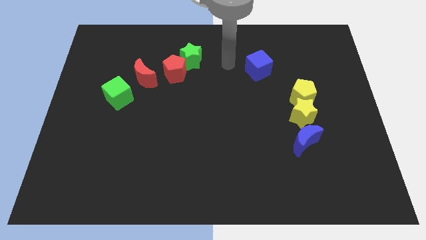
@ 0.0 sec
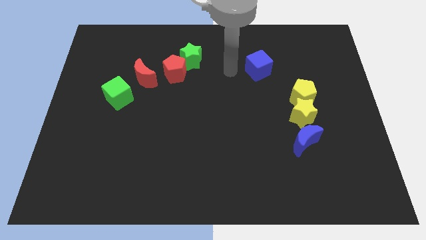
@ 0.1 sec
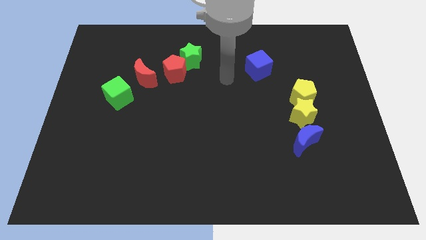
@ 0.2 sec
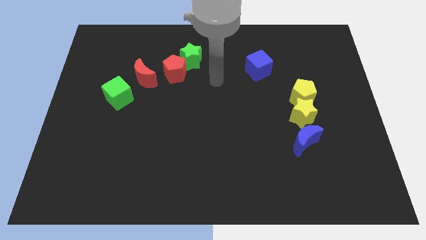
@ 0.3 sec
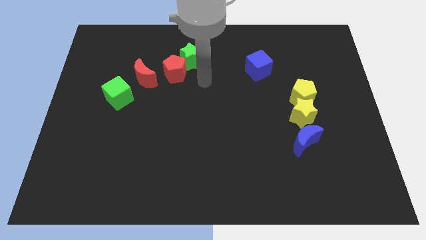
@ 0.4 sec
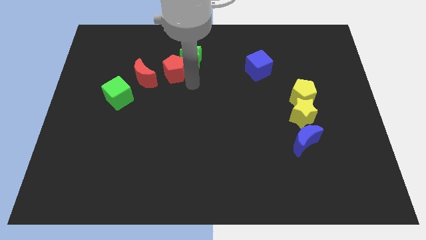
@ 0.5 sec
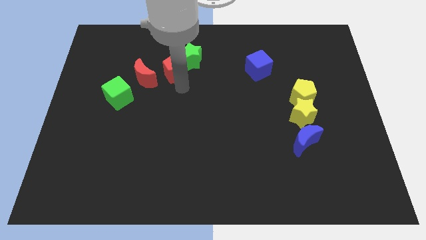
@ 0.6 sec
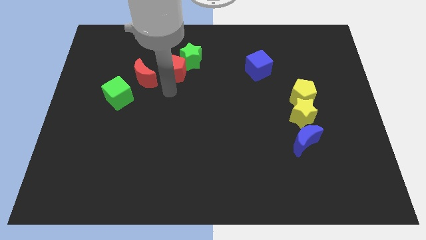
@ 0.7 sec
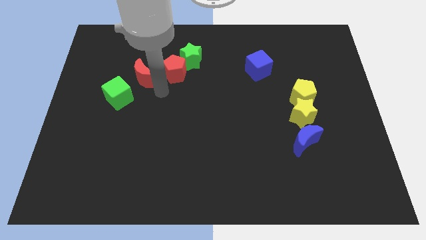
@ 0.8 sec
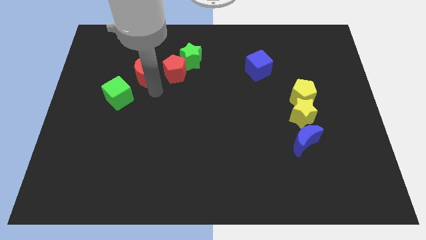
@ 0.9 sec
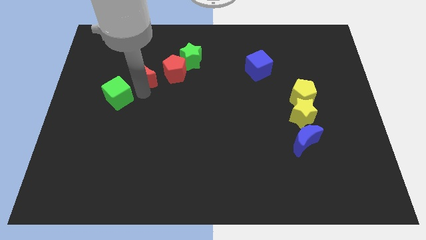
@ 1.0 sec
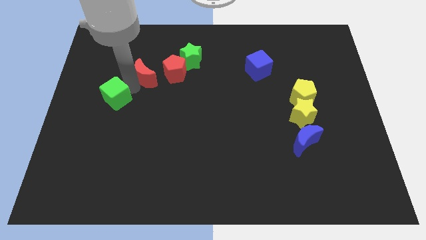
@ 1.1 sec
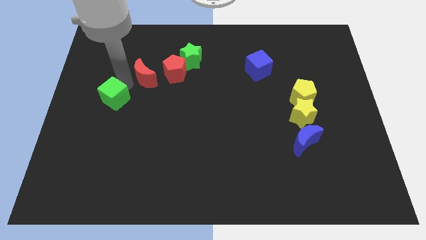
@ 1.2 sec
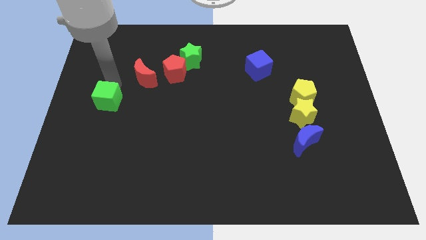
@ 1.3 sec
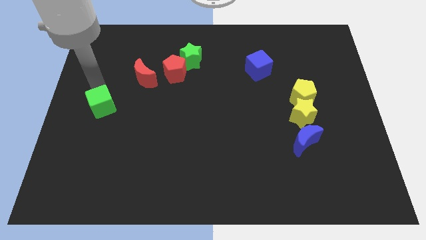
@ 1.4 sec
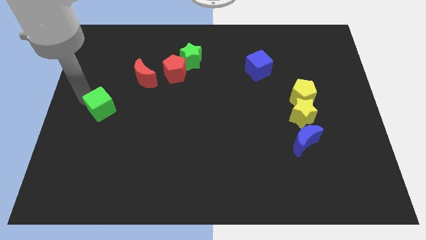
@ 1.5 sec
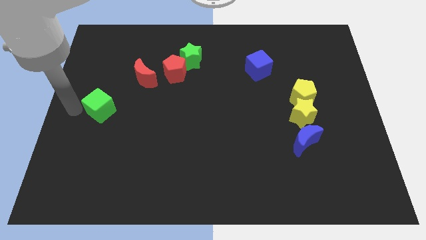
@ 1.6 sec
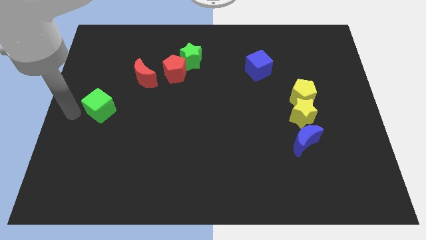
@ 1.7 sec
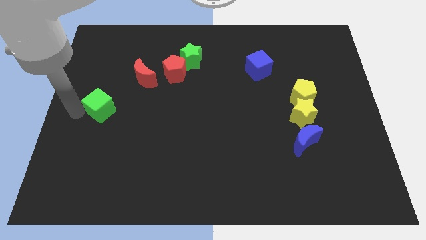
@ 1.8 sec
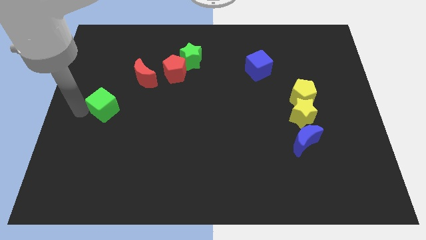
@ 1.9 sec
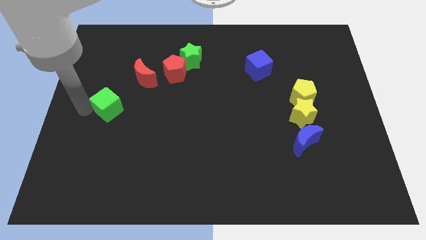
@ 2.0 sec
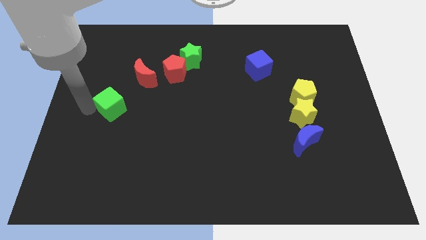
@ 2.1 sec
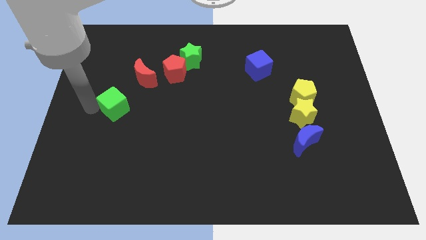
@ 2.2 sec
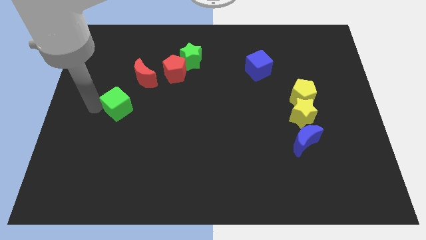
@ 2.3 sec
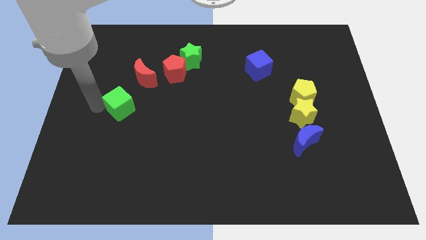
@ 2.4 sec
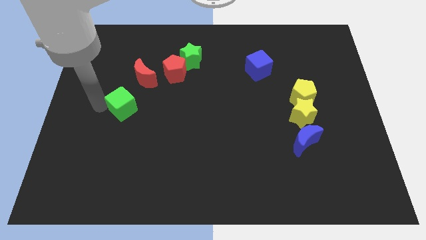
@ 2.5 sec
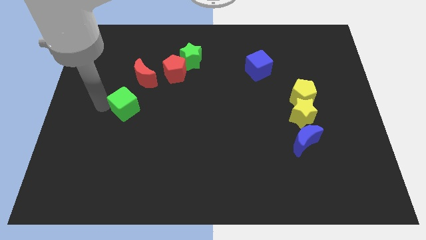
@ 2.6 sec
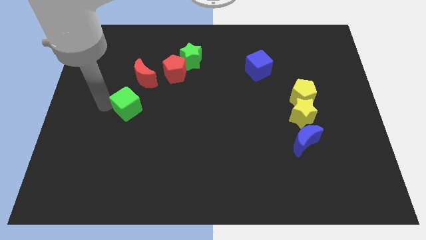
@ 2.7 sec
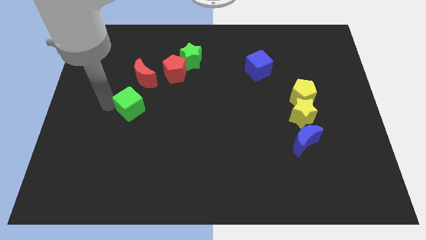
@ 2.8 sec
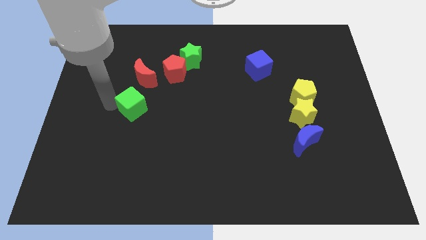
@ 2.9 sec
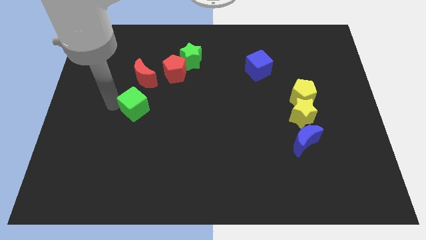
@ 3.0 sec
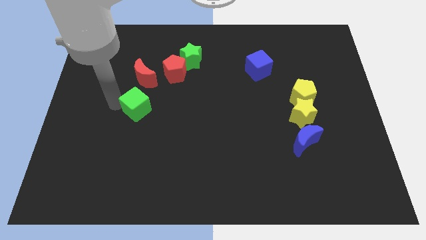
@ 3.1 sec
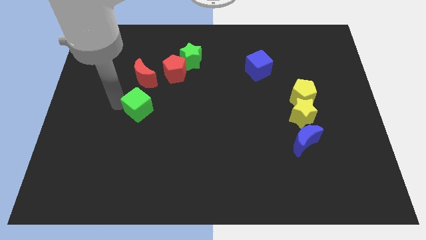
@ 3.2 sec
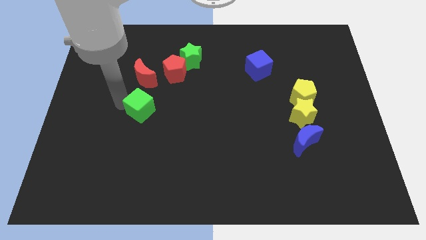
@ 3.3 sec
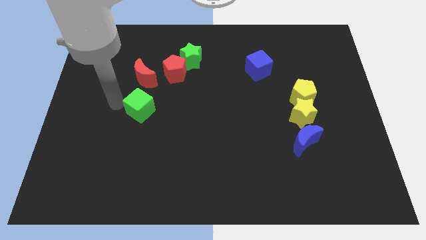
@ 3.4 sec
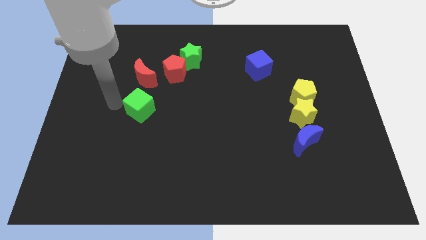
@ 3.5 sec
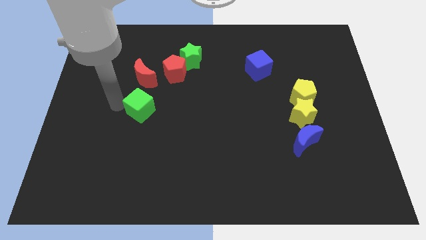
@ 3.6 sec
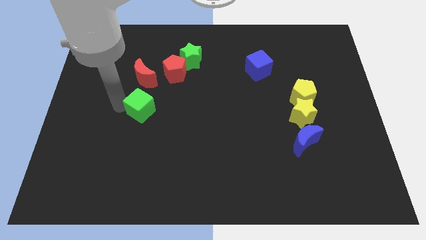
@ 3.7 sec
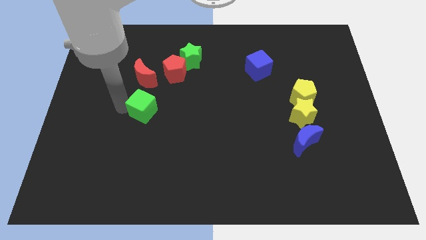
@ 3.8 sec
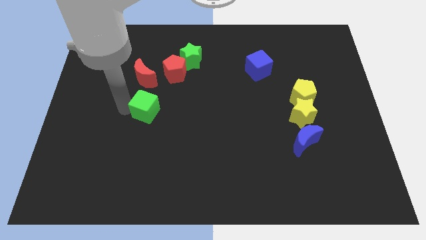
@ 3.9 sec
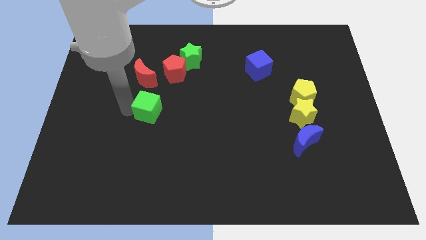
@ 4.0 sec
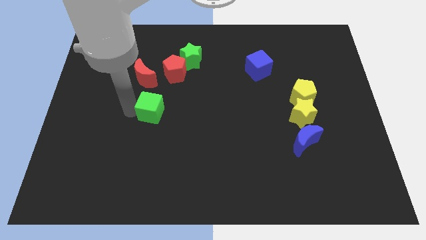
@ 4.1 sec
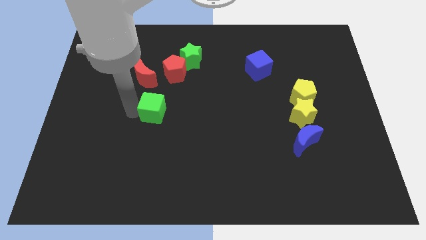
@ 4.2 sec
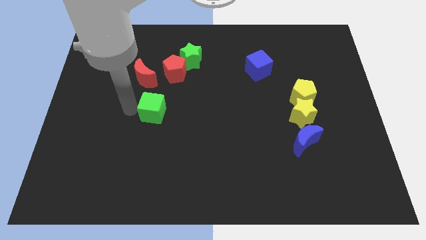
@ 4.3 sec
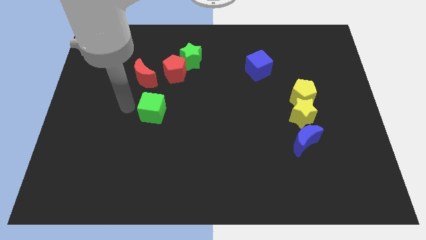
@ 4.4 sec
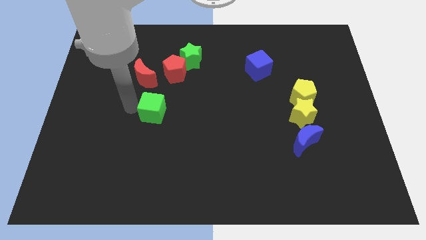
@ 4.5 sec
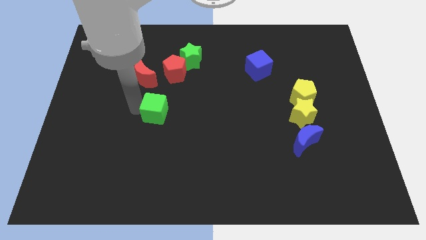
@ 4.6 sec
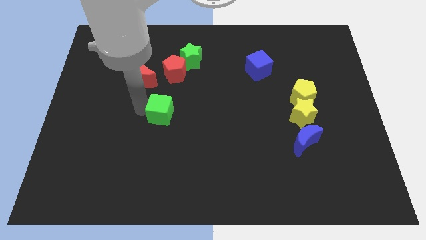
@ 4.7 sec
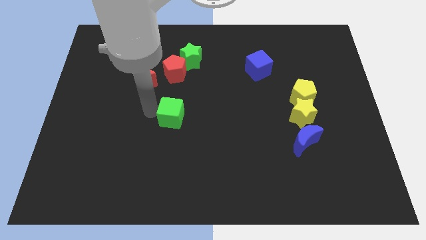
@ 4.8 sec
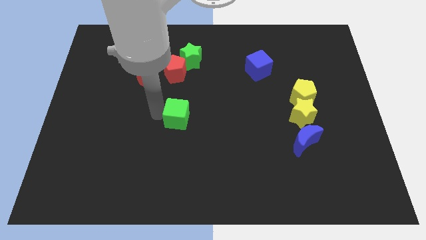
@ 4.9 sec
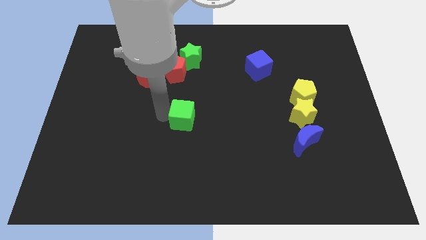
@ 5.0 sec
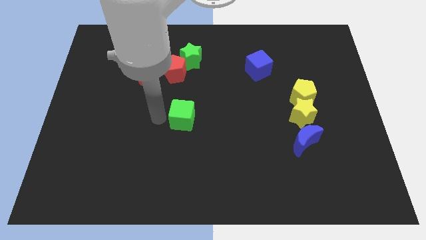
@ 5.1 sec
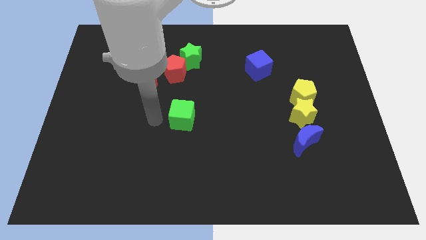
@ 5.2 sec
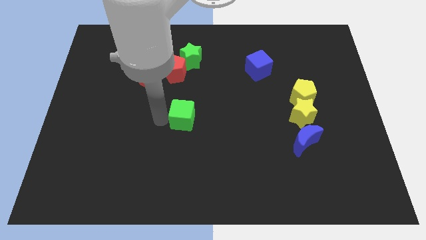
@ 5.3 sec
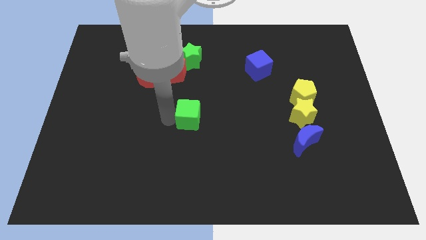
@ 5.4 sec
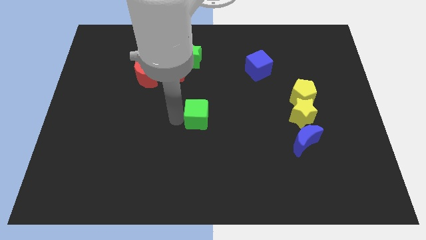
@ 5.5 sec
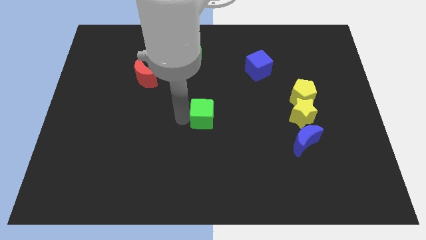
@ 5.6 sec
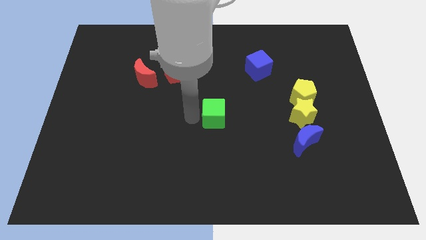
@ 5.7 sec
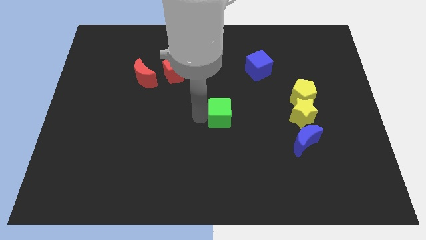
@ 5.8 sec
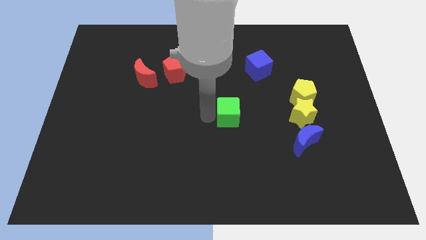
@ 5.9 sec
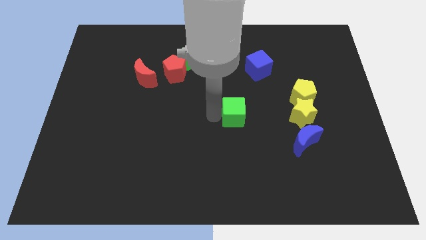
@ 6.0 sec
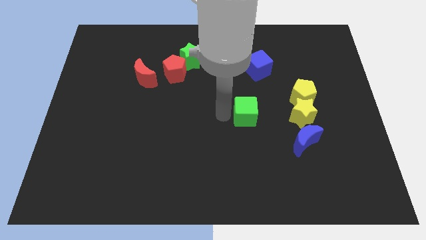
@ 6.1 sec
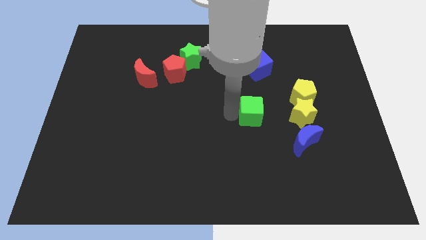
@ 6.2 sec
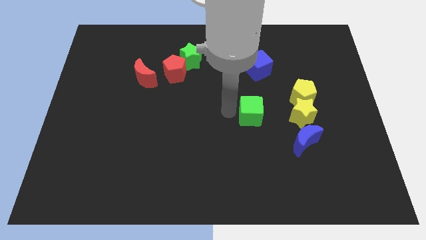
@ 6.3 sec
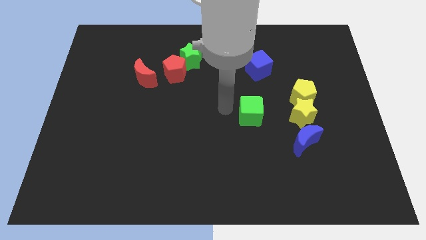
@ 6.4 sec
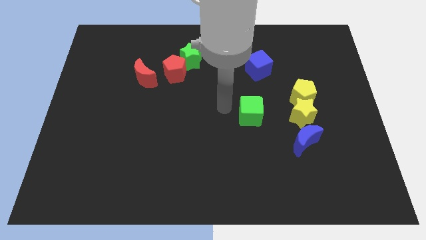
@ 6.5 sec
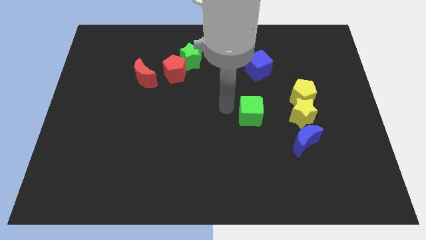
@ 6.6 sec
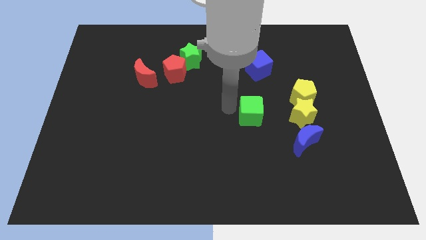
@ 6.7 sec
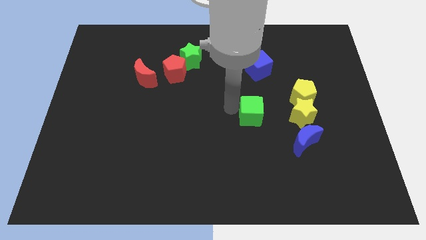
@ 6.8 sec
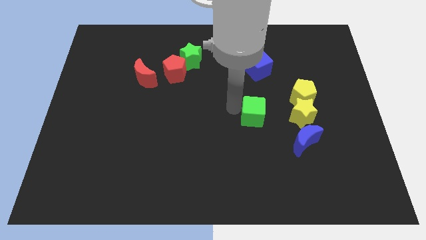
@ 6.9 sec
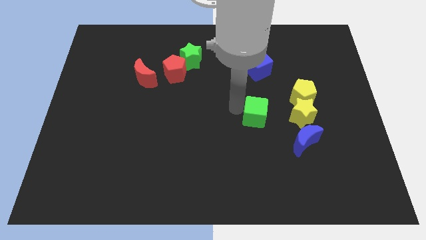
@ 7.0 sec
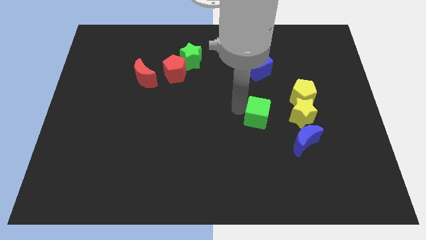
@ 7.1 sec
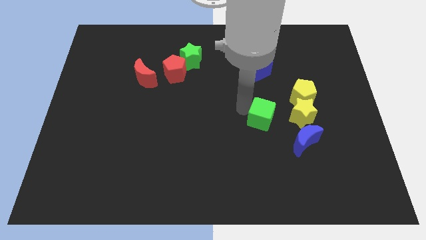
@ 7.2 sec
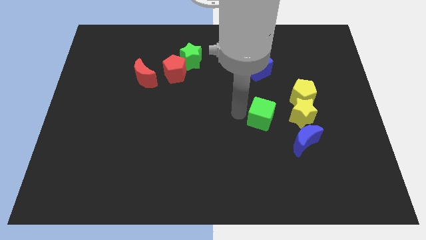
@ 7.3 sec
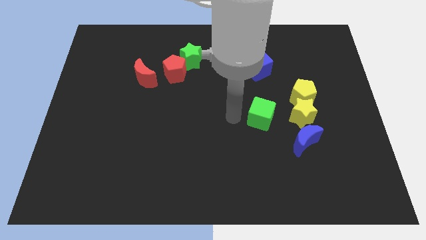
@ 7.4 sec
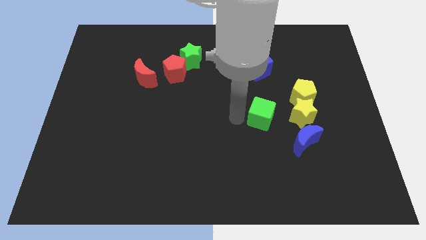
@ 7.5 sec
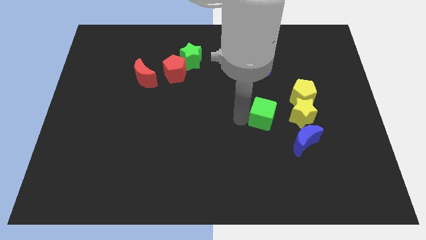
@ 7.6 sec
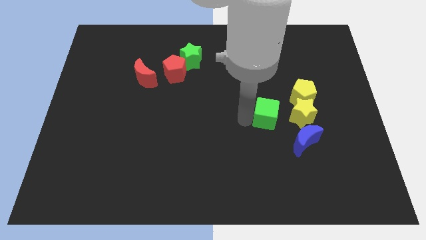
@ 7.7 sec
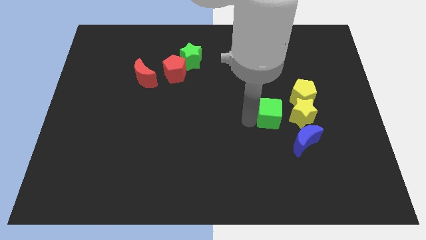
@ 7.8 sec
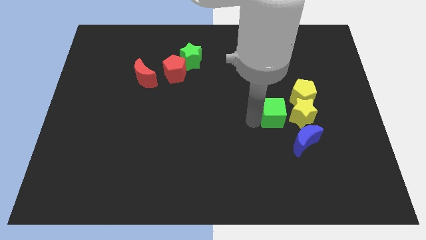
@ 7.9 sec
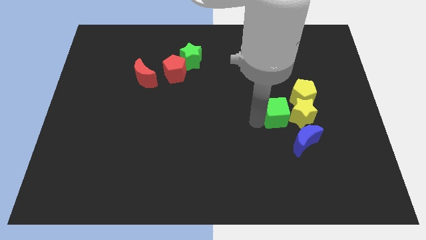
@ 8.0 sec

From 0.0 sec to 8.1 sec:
push the green cube to the yellow star
